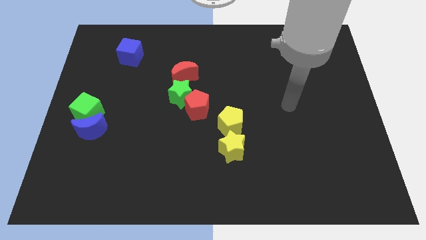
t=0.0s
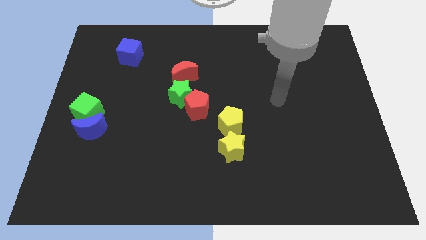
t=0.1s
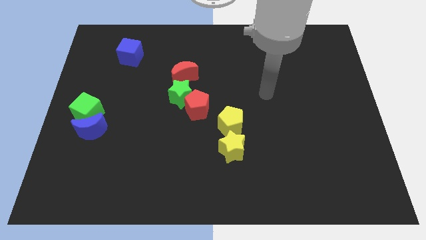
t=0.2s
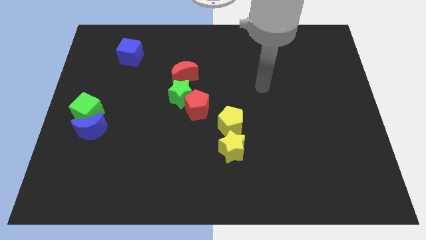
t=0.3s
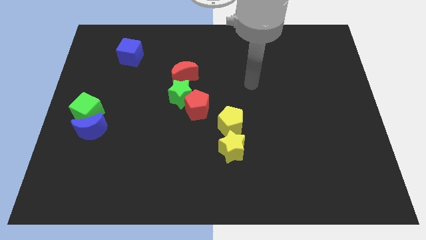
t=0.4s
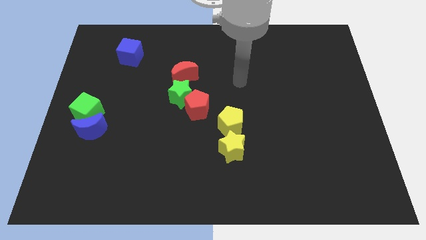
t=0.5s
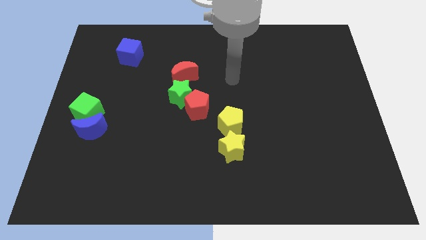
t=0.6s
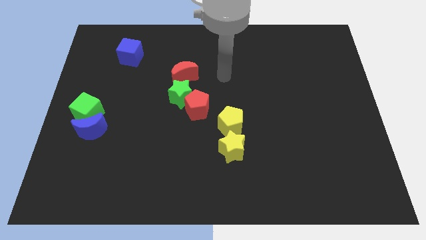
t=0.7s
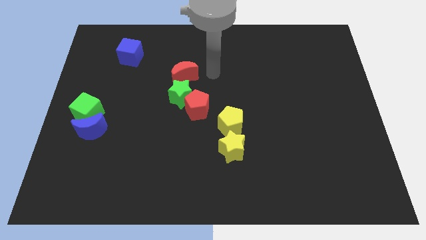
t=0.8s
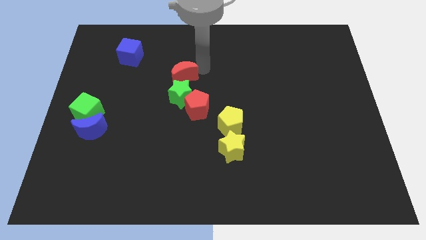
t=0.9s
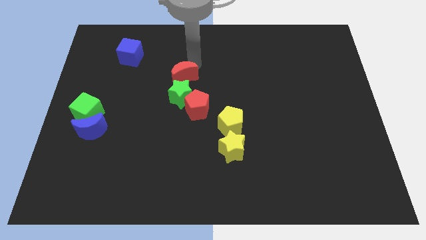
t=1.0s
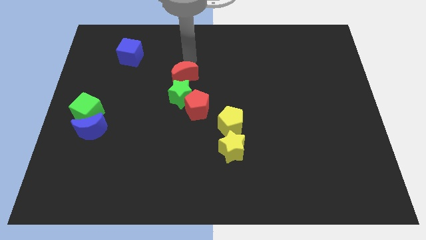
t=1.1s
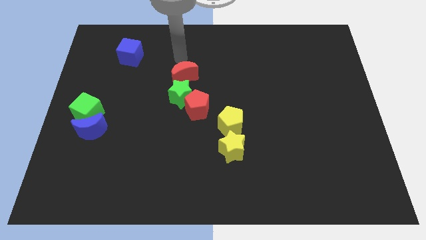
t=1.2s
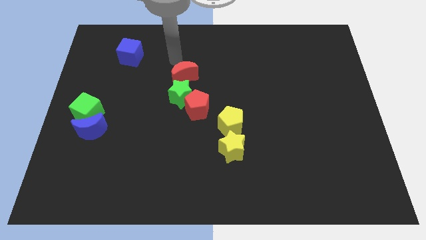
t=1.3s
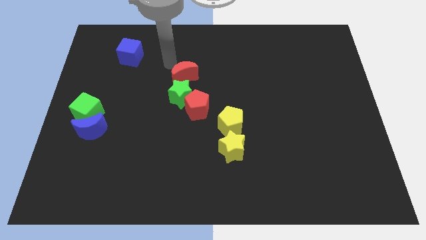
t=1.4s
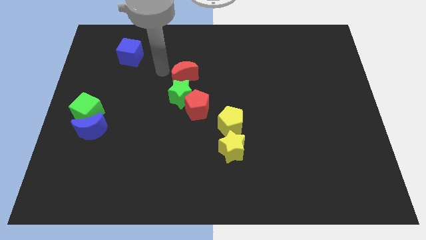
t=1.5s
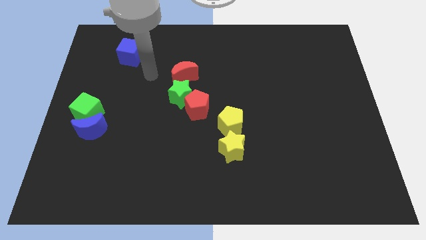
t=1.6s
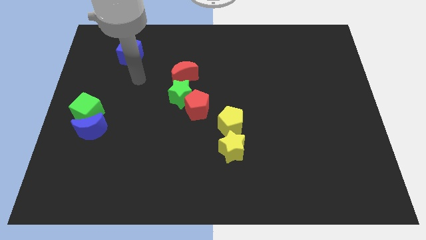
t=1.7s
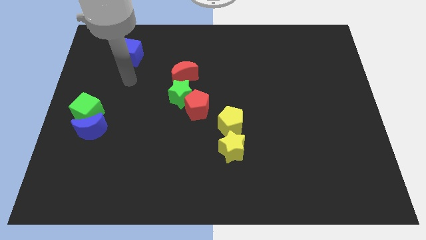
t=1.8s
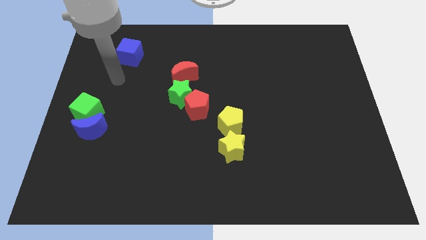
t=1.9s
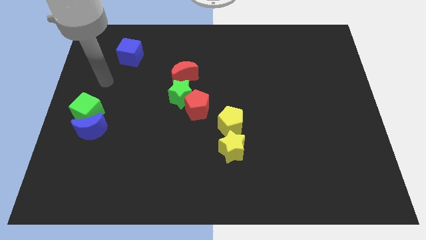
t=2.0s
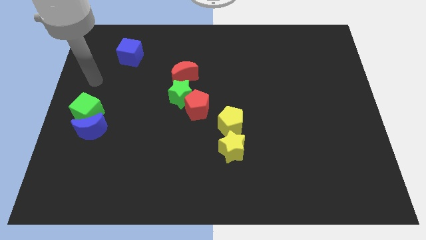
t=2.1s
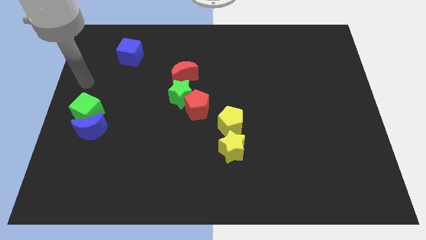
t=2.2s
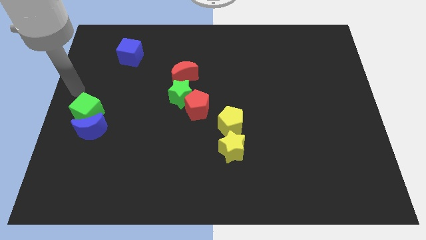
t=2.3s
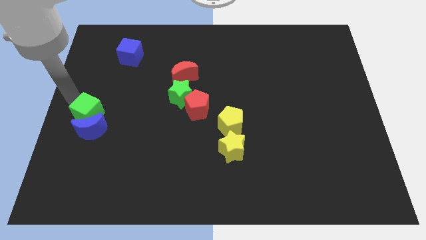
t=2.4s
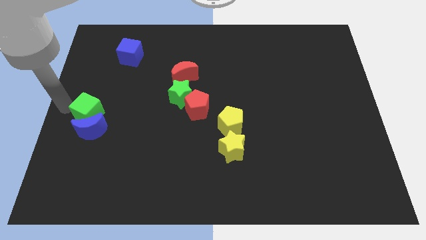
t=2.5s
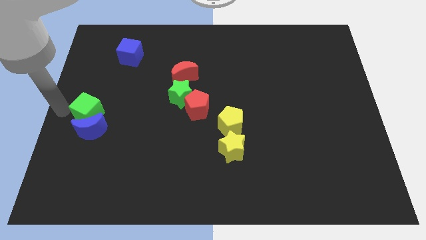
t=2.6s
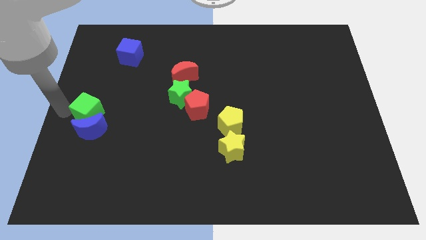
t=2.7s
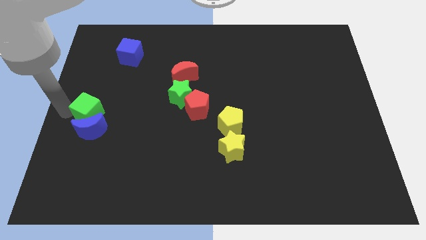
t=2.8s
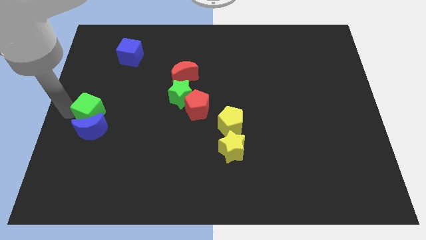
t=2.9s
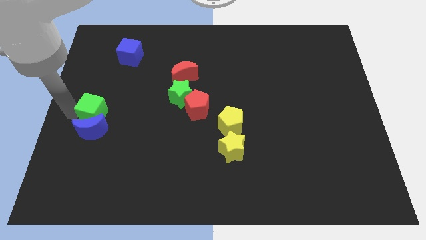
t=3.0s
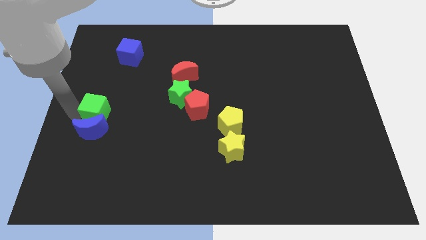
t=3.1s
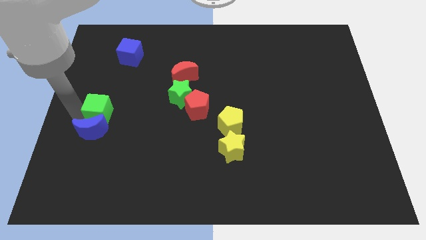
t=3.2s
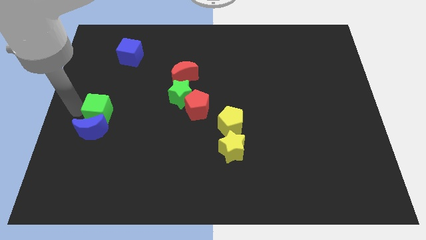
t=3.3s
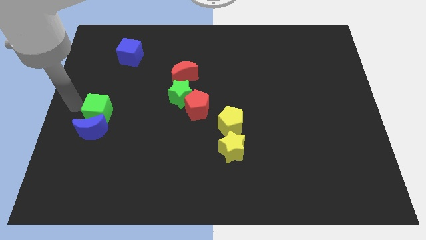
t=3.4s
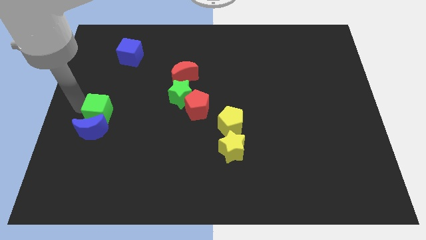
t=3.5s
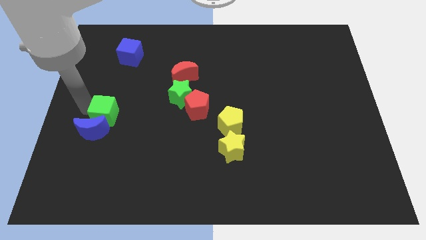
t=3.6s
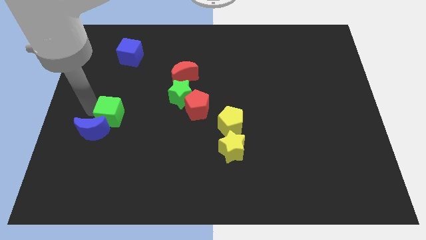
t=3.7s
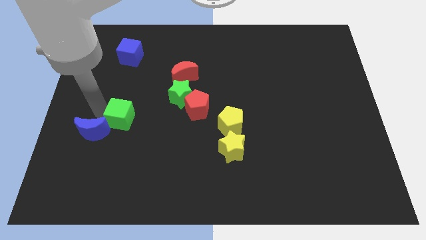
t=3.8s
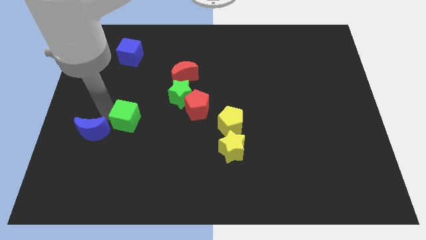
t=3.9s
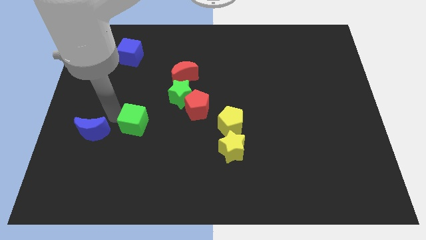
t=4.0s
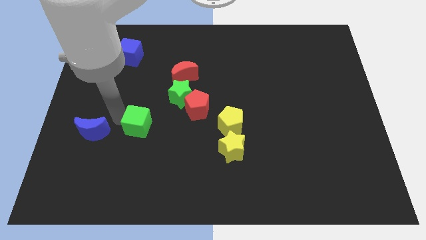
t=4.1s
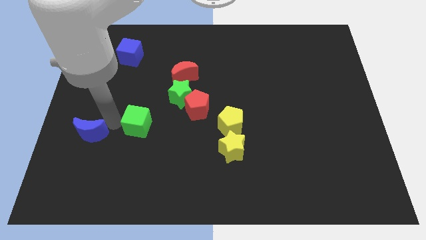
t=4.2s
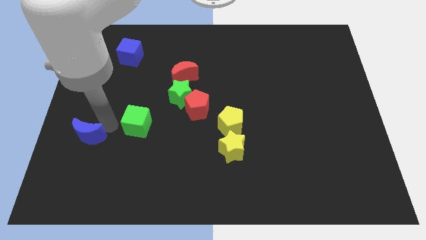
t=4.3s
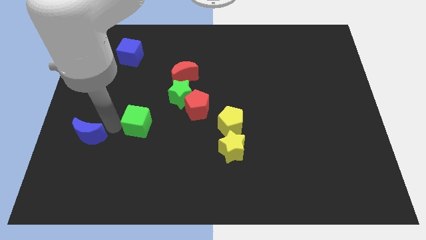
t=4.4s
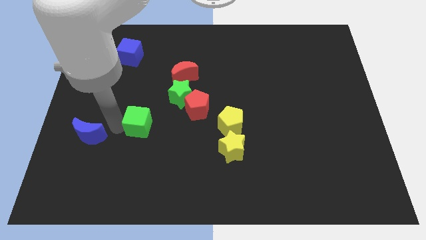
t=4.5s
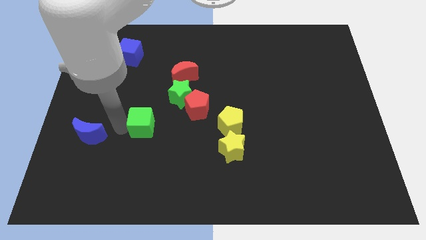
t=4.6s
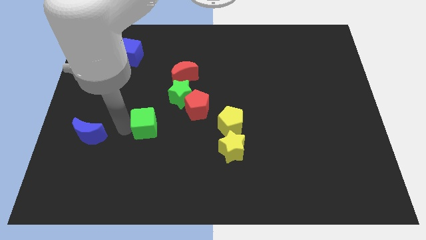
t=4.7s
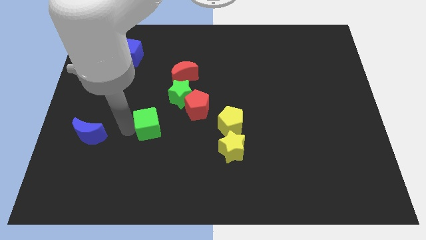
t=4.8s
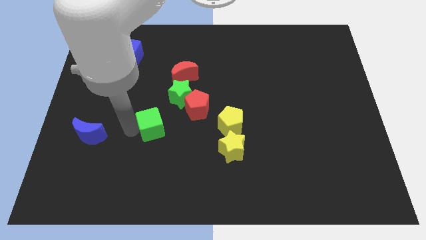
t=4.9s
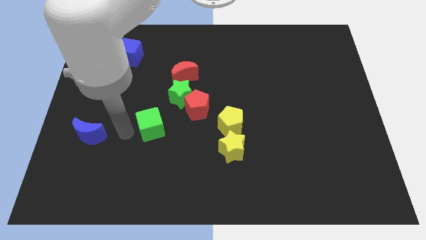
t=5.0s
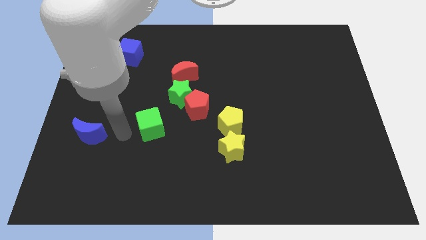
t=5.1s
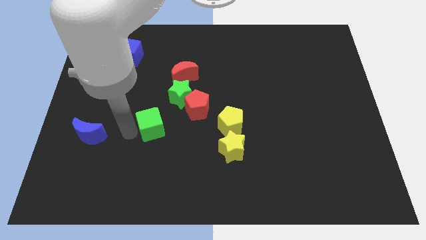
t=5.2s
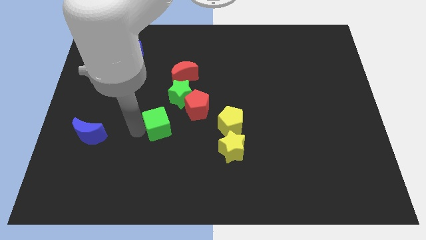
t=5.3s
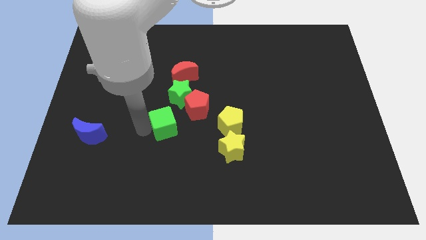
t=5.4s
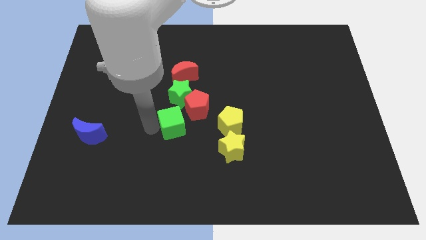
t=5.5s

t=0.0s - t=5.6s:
move the green cube to the center

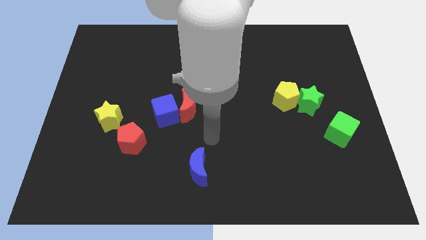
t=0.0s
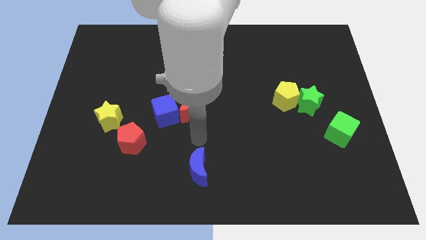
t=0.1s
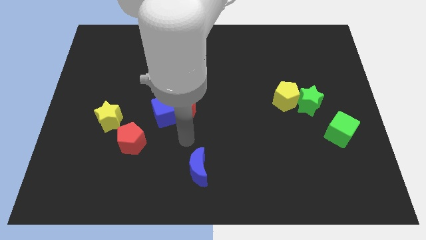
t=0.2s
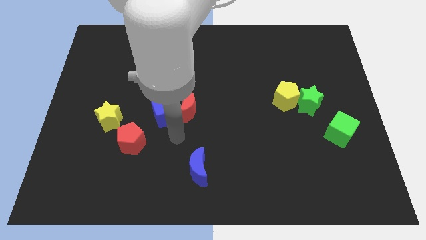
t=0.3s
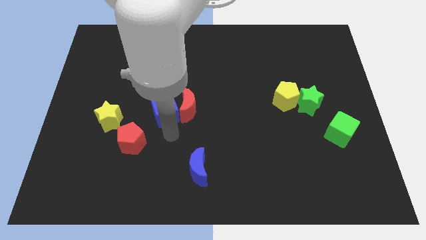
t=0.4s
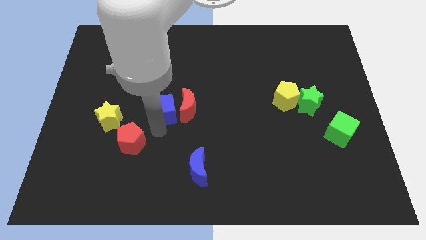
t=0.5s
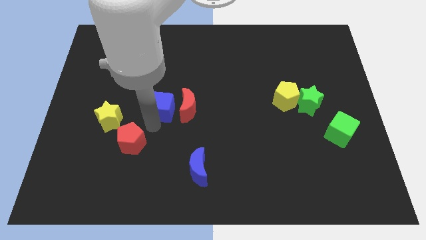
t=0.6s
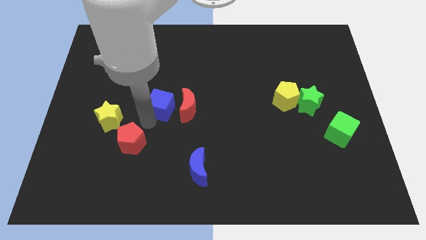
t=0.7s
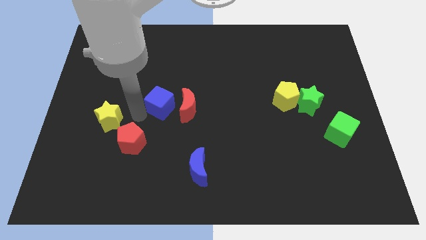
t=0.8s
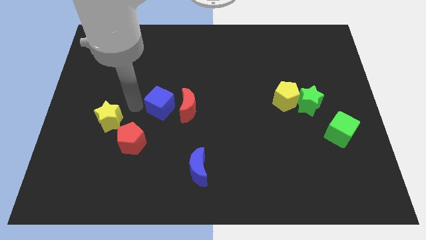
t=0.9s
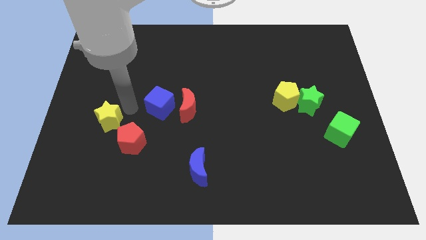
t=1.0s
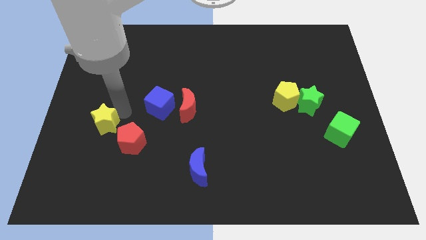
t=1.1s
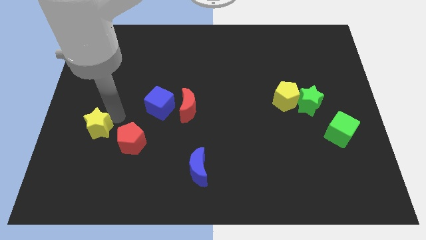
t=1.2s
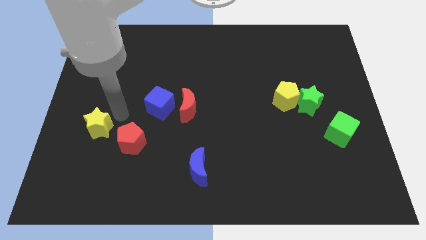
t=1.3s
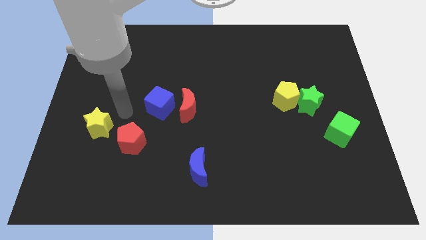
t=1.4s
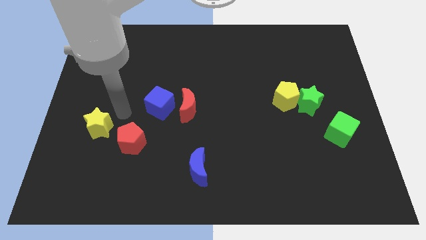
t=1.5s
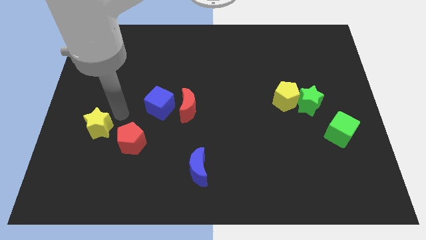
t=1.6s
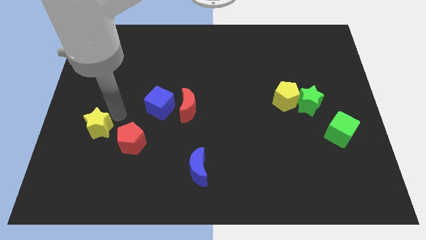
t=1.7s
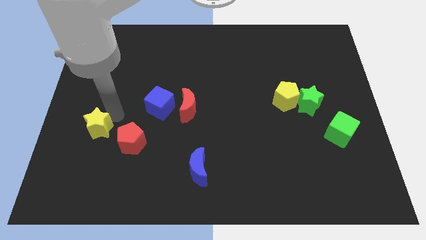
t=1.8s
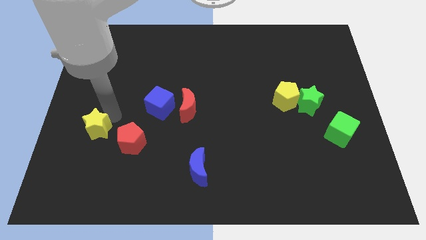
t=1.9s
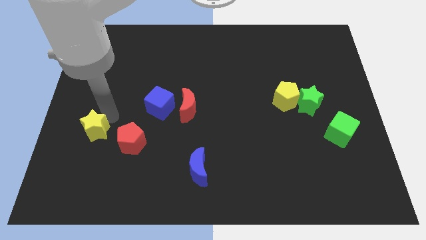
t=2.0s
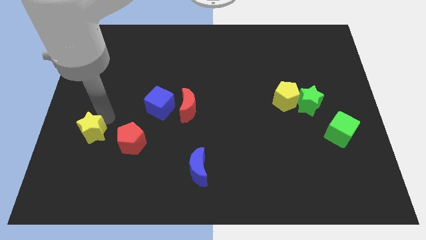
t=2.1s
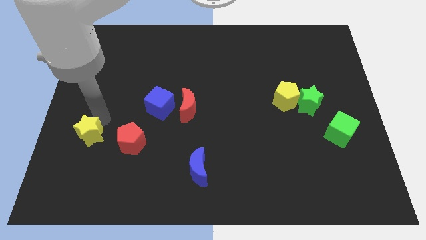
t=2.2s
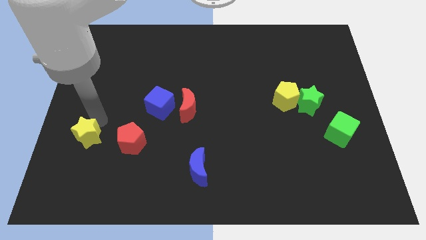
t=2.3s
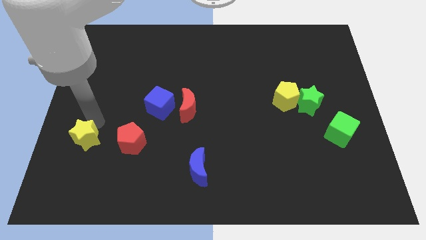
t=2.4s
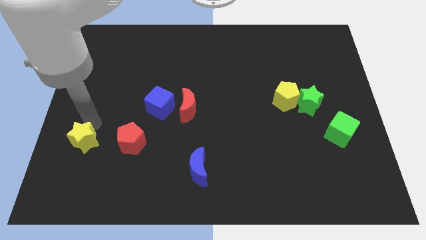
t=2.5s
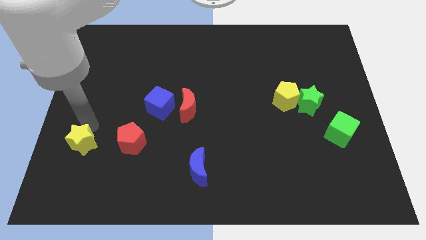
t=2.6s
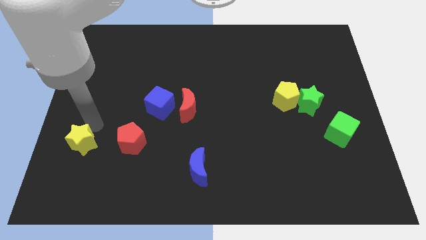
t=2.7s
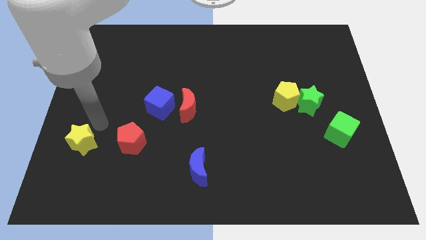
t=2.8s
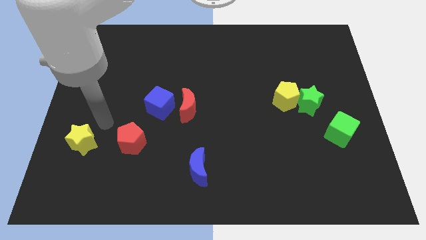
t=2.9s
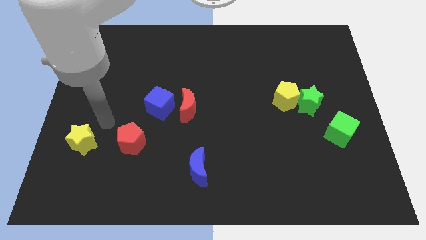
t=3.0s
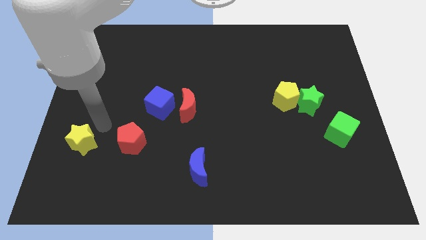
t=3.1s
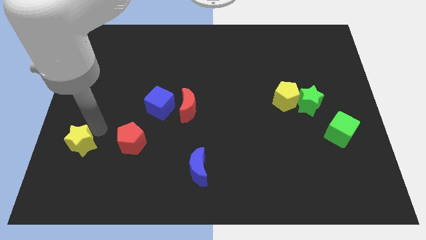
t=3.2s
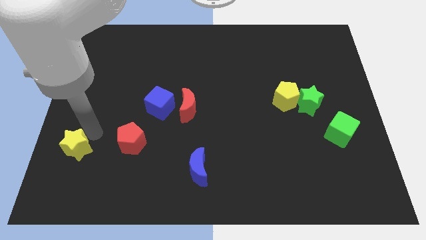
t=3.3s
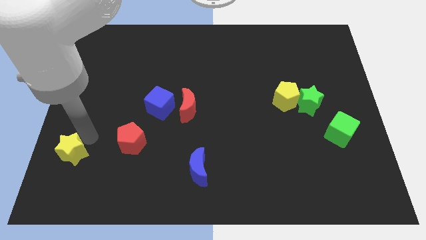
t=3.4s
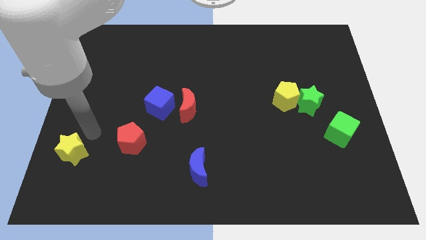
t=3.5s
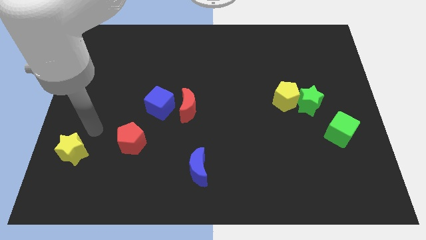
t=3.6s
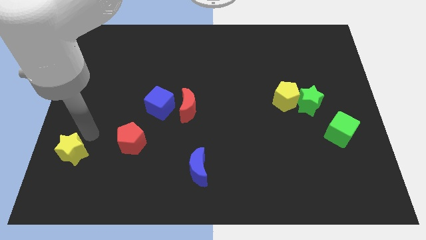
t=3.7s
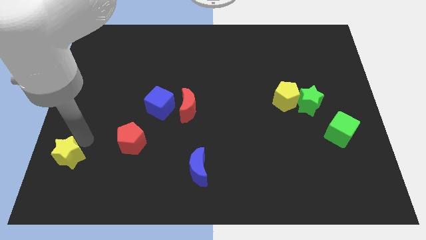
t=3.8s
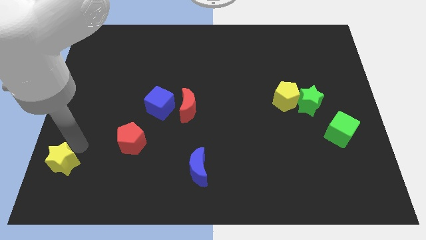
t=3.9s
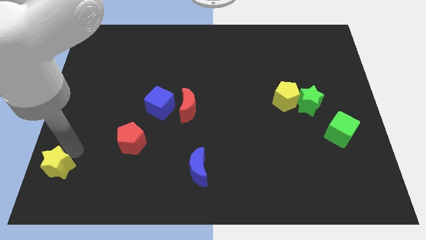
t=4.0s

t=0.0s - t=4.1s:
put the yellow star to the bottom left corner
